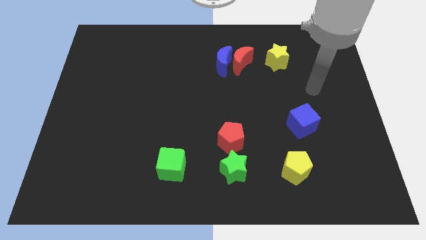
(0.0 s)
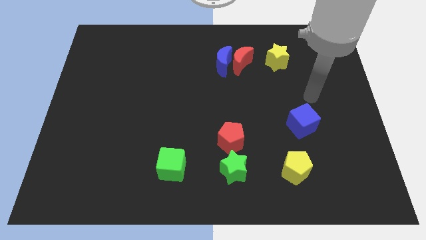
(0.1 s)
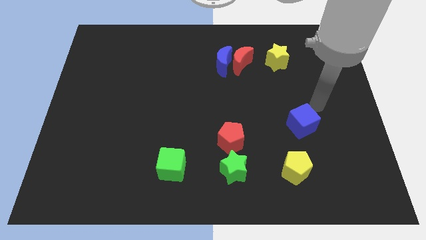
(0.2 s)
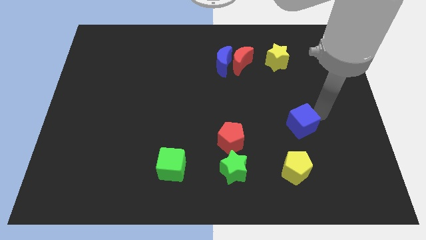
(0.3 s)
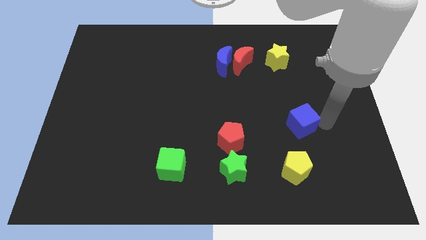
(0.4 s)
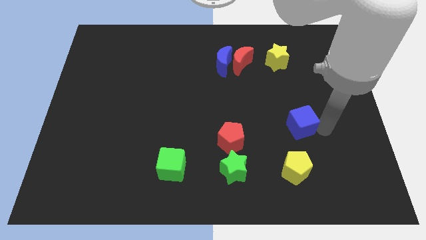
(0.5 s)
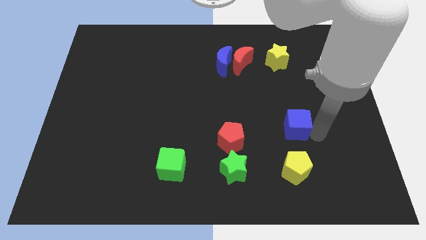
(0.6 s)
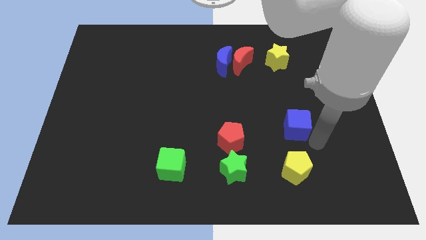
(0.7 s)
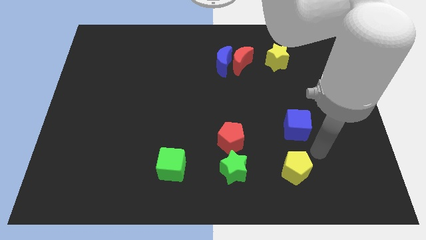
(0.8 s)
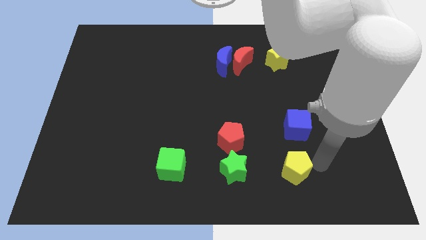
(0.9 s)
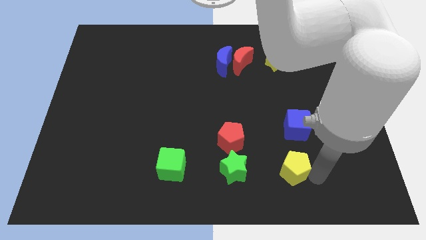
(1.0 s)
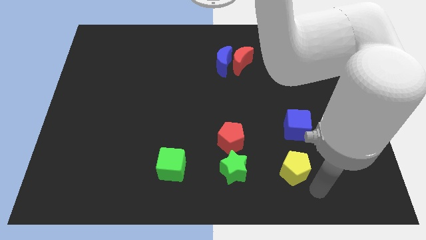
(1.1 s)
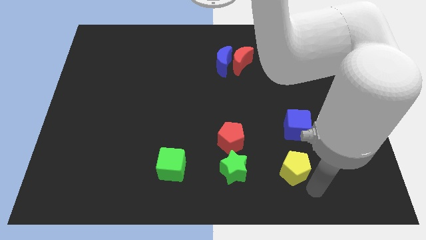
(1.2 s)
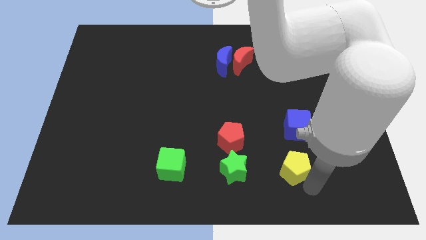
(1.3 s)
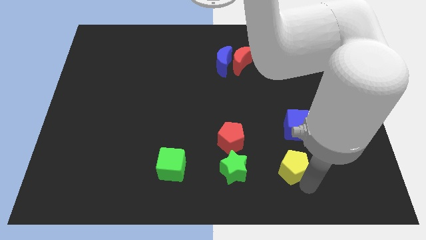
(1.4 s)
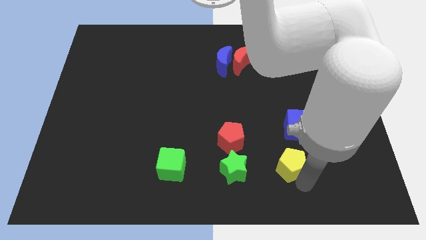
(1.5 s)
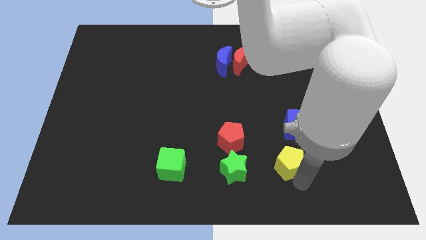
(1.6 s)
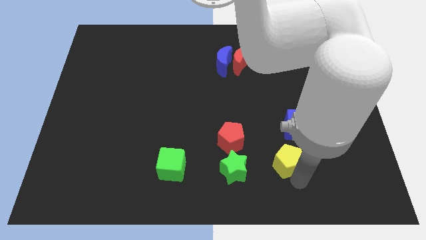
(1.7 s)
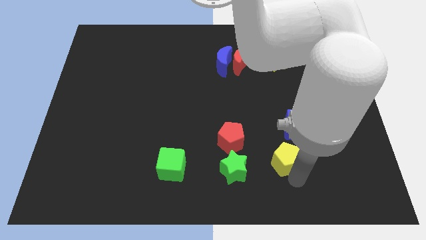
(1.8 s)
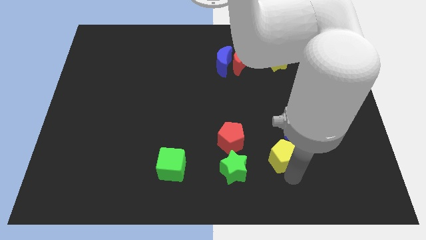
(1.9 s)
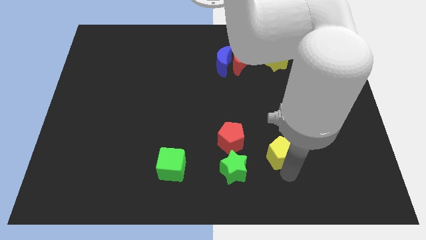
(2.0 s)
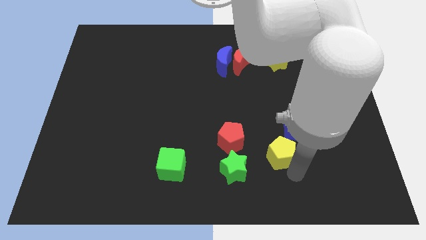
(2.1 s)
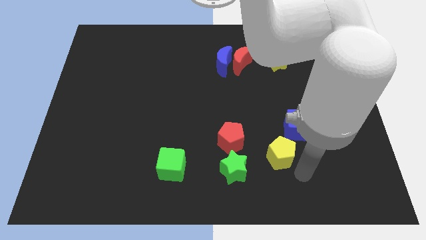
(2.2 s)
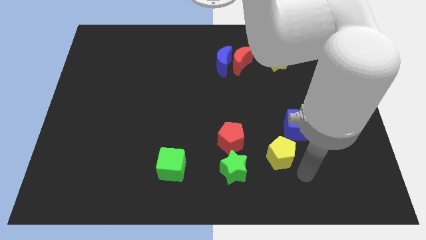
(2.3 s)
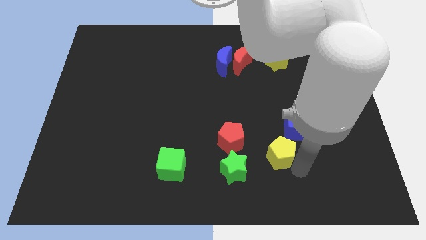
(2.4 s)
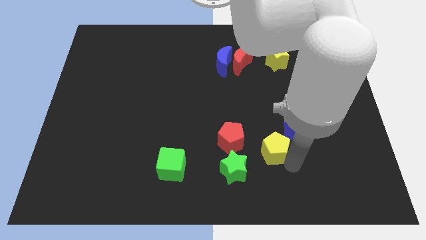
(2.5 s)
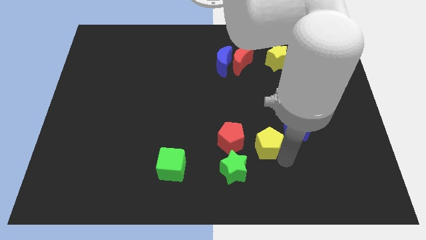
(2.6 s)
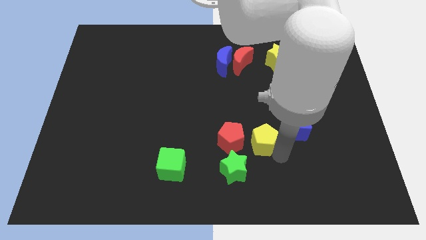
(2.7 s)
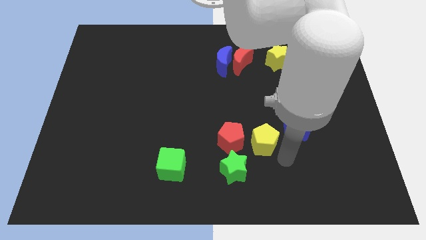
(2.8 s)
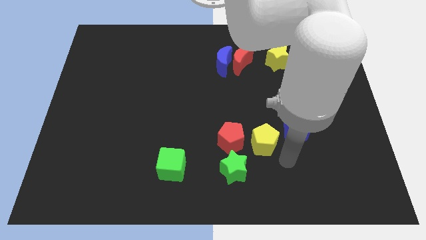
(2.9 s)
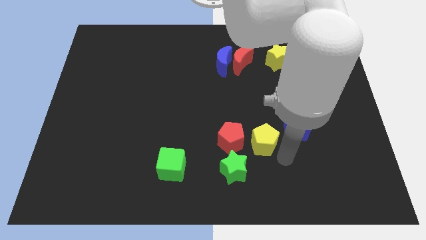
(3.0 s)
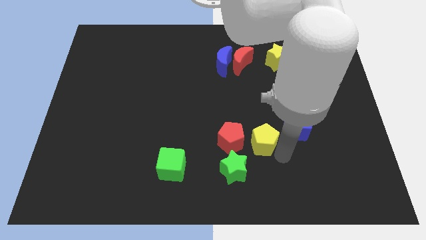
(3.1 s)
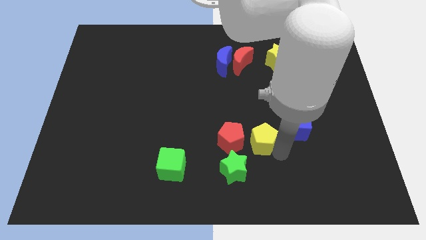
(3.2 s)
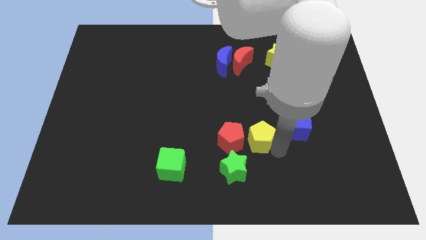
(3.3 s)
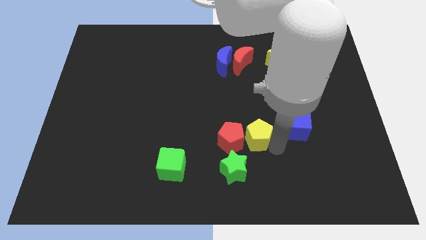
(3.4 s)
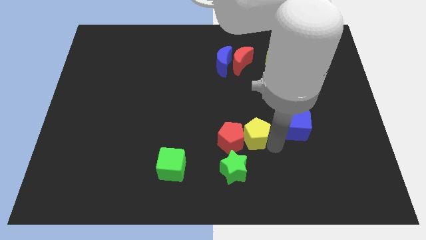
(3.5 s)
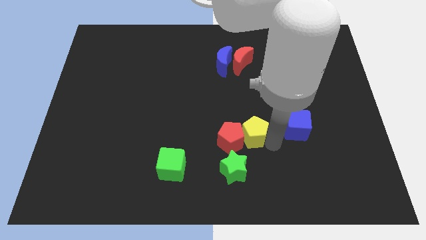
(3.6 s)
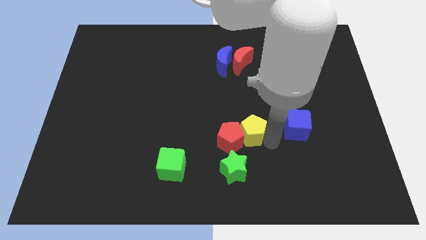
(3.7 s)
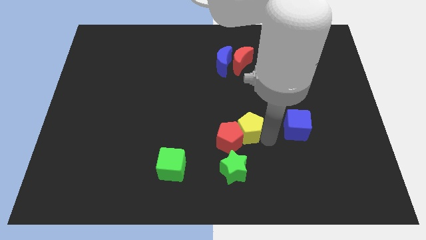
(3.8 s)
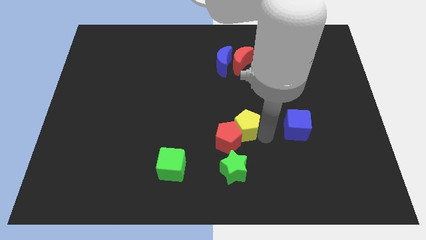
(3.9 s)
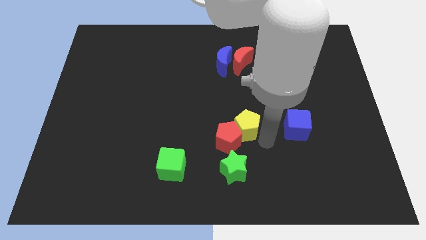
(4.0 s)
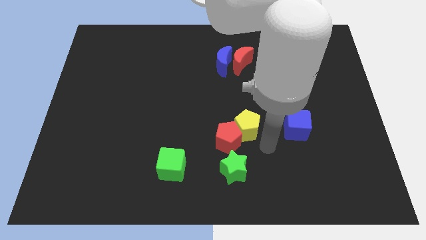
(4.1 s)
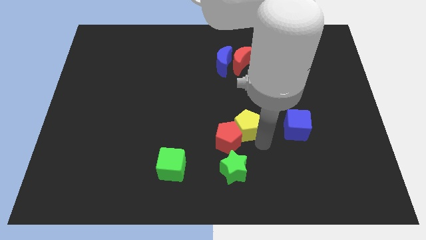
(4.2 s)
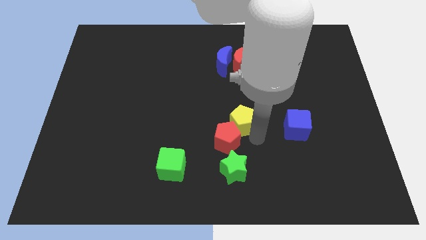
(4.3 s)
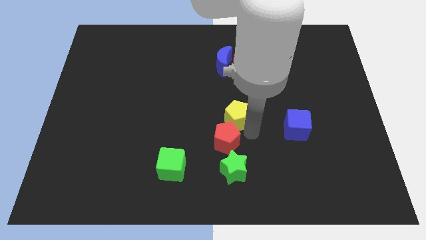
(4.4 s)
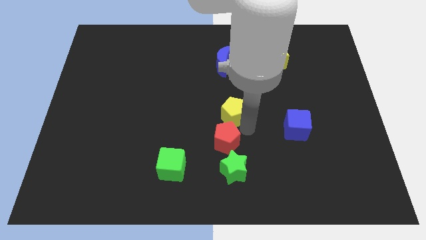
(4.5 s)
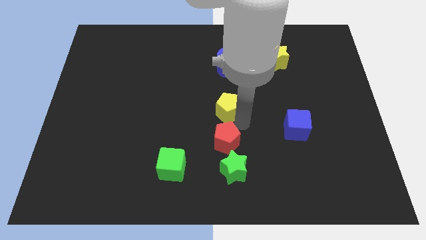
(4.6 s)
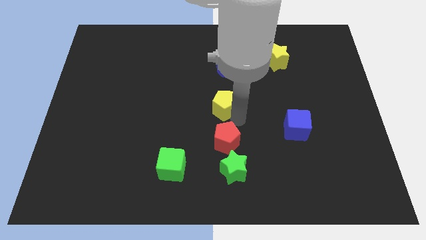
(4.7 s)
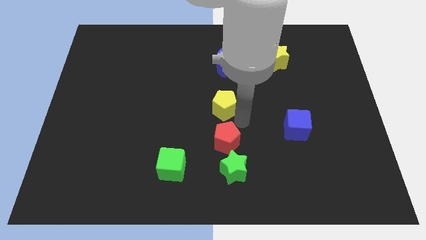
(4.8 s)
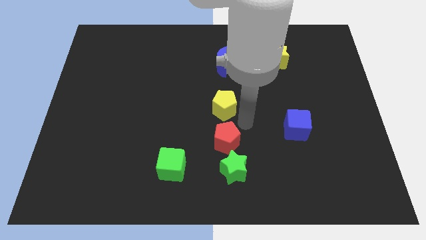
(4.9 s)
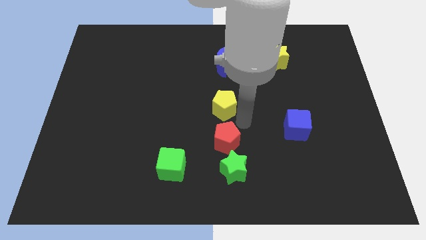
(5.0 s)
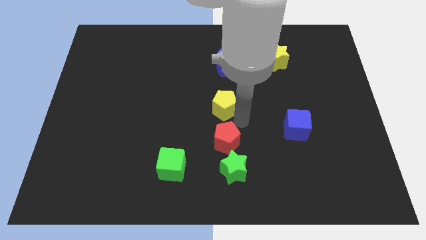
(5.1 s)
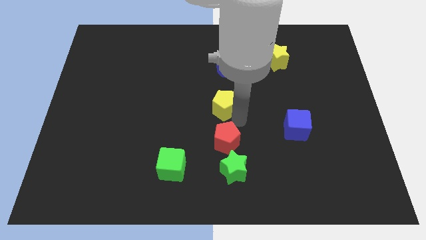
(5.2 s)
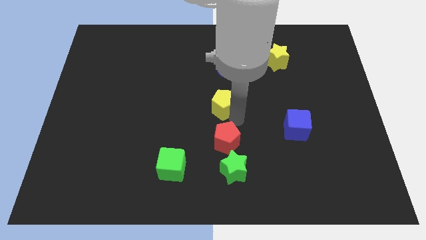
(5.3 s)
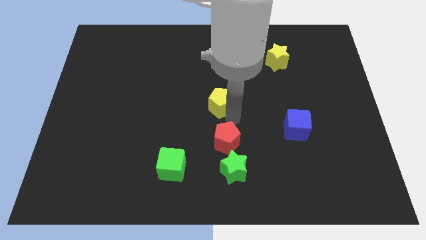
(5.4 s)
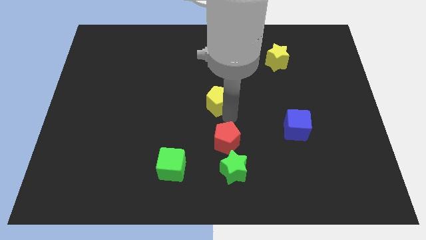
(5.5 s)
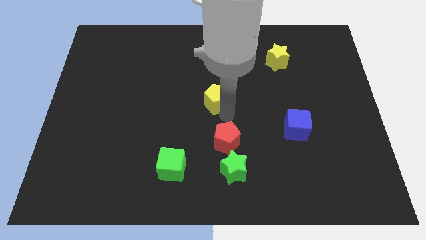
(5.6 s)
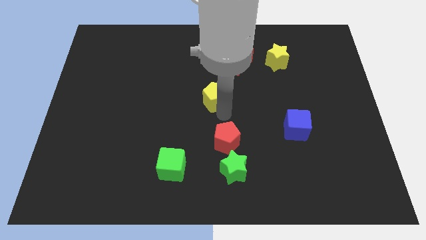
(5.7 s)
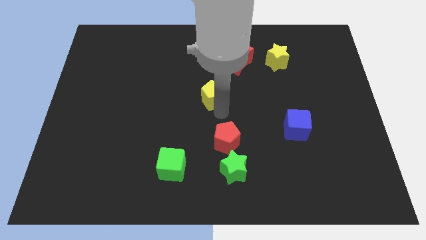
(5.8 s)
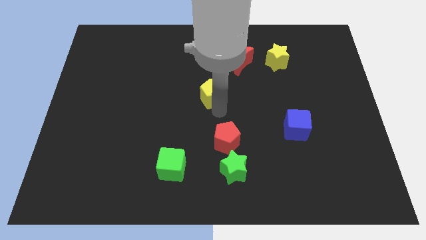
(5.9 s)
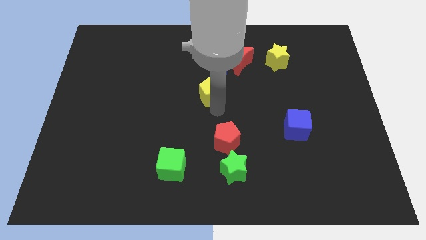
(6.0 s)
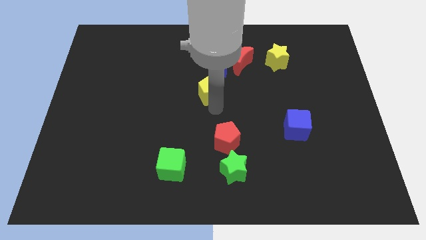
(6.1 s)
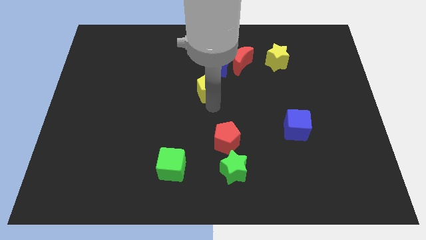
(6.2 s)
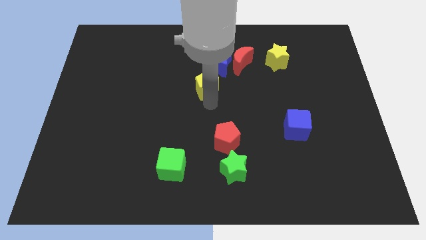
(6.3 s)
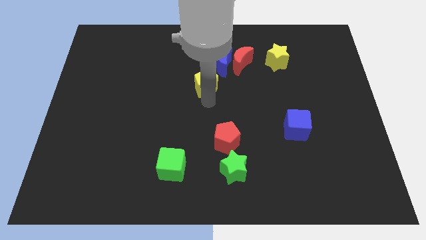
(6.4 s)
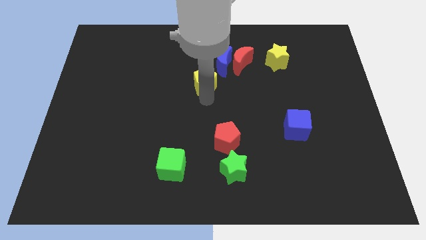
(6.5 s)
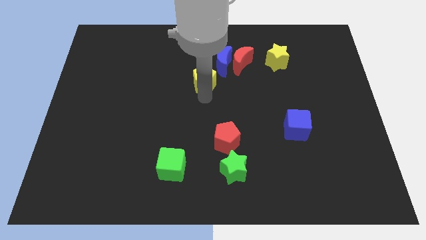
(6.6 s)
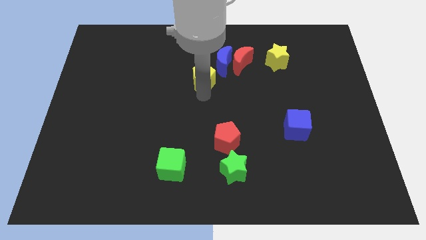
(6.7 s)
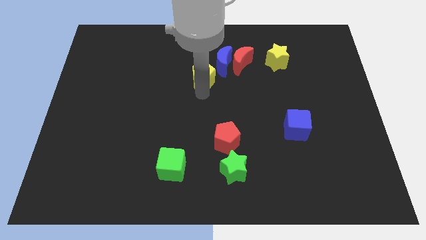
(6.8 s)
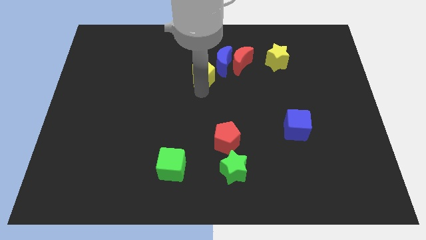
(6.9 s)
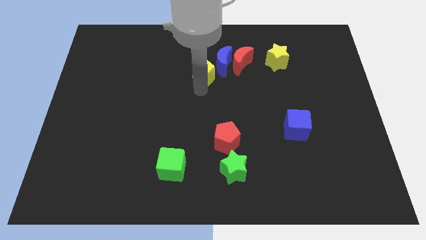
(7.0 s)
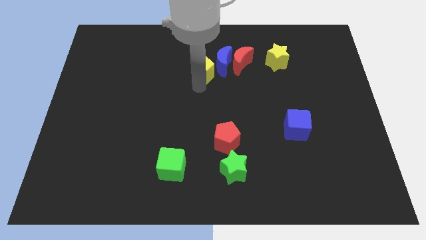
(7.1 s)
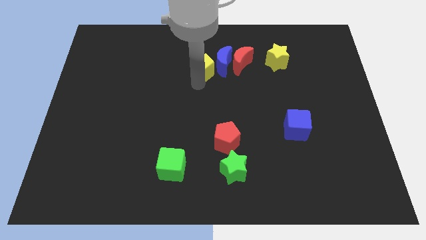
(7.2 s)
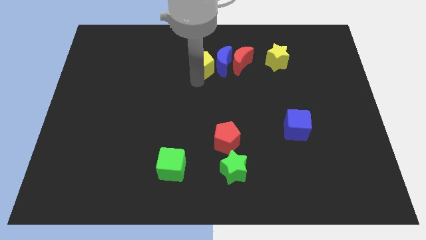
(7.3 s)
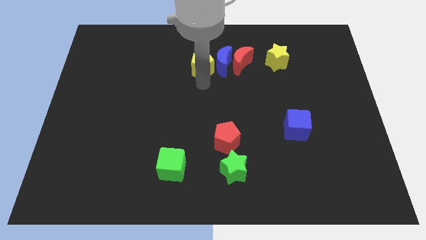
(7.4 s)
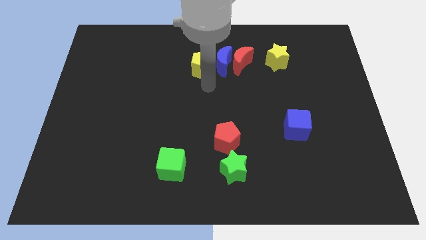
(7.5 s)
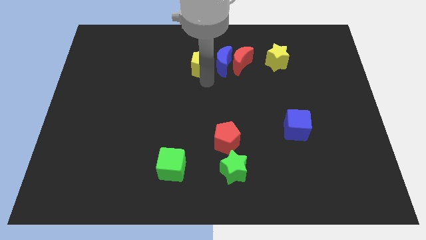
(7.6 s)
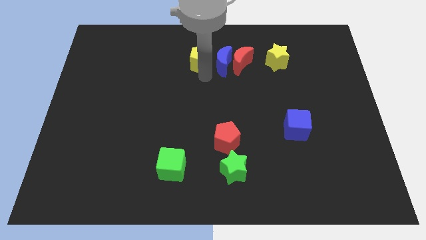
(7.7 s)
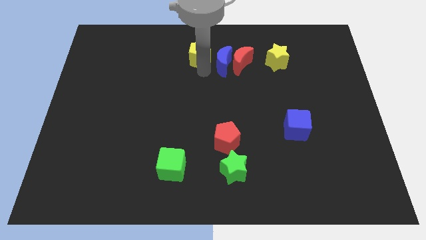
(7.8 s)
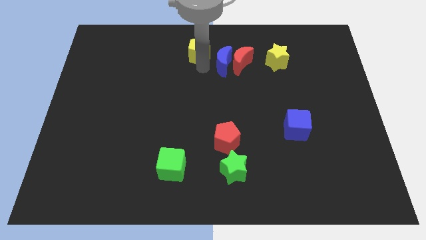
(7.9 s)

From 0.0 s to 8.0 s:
put the yellow pentagon to the top
